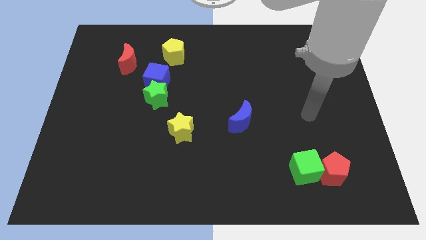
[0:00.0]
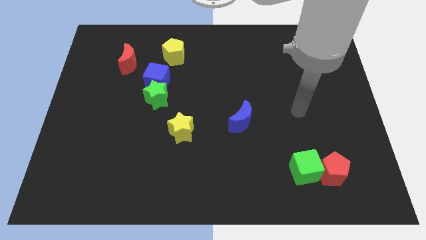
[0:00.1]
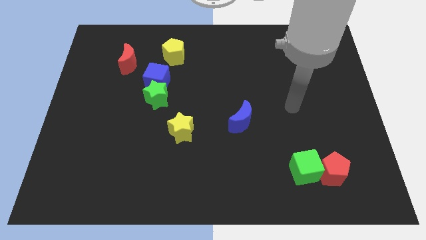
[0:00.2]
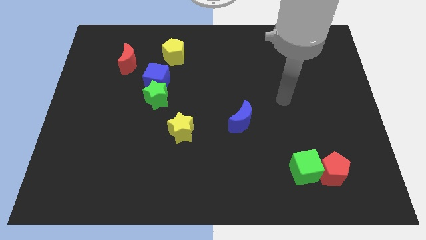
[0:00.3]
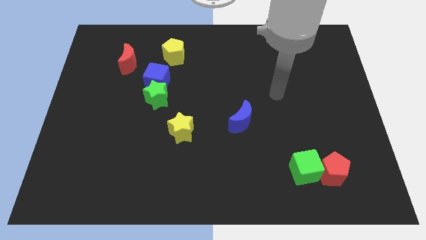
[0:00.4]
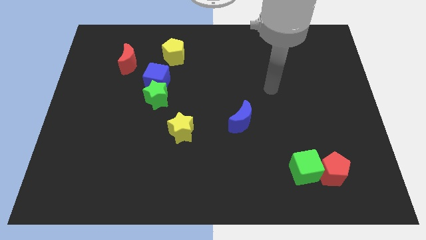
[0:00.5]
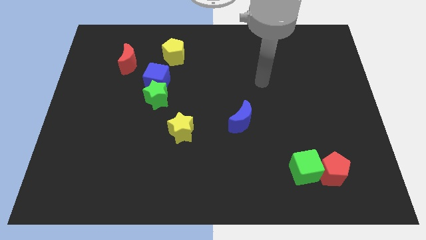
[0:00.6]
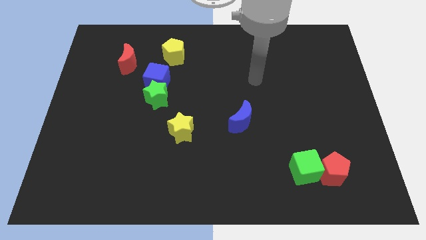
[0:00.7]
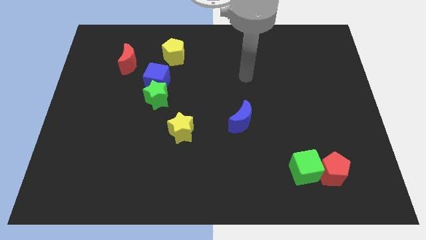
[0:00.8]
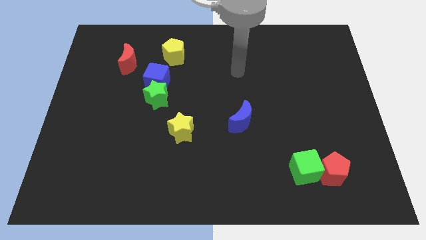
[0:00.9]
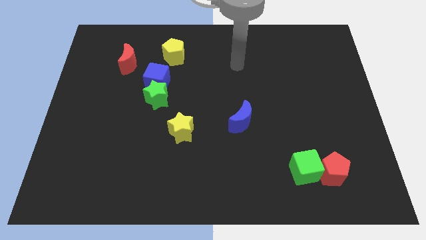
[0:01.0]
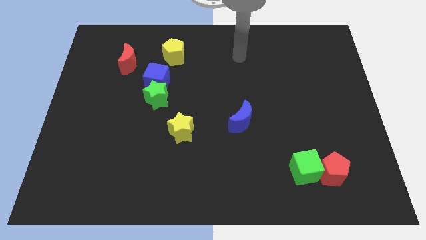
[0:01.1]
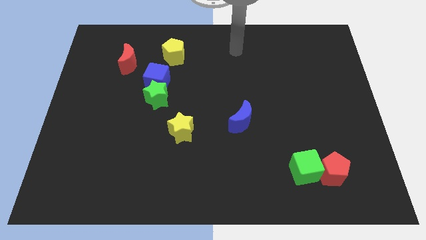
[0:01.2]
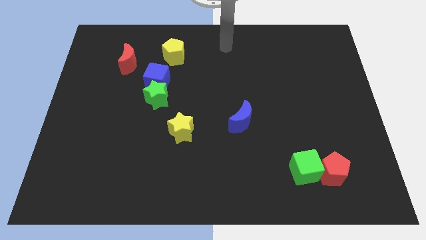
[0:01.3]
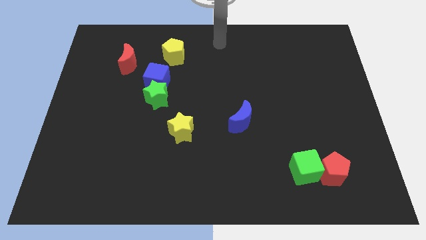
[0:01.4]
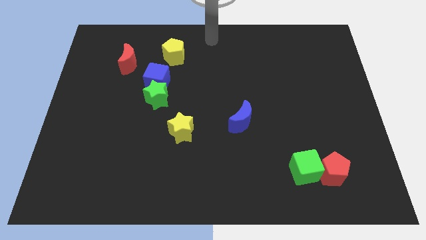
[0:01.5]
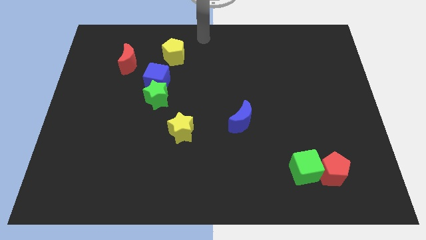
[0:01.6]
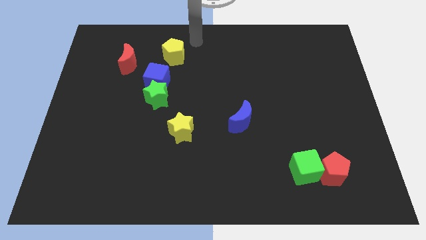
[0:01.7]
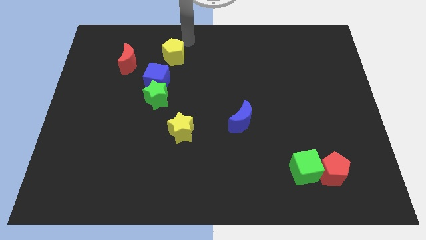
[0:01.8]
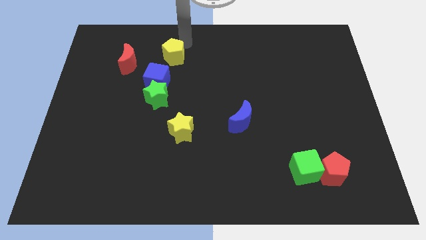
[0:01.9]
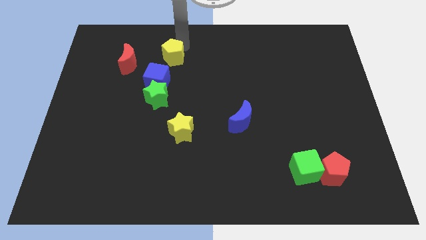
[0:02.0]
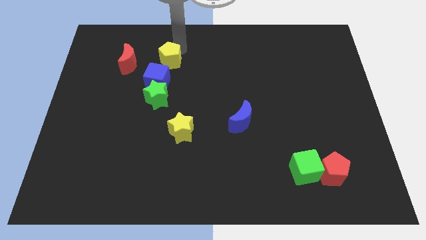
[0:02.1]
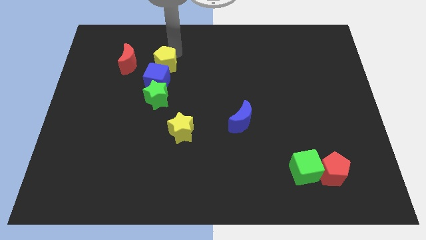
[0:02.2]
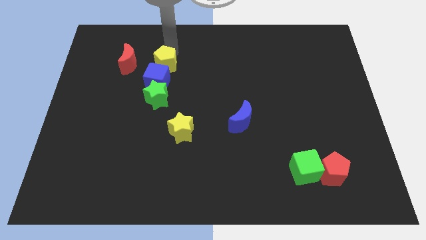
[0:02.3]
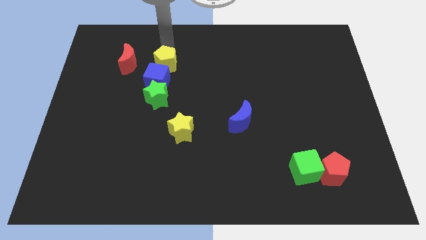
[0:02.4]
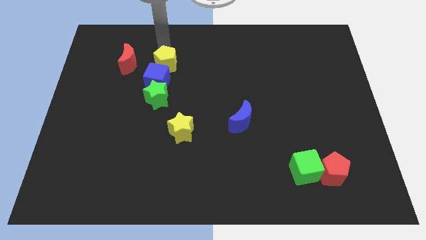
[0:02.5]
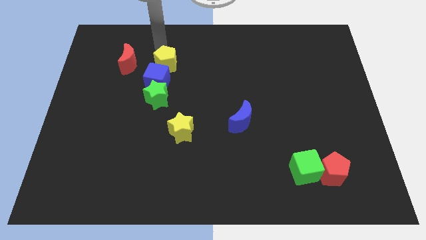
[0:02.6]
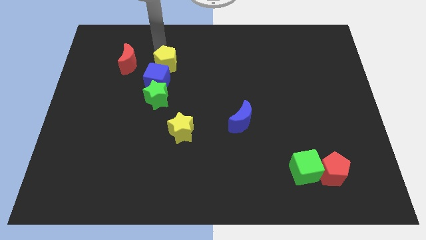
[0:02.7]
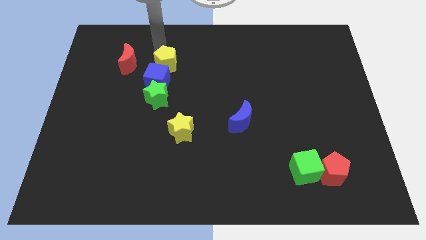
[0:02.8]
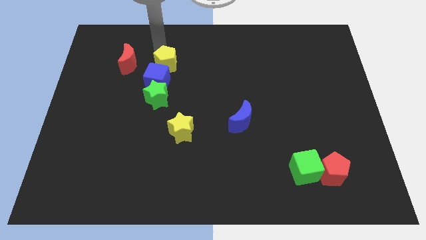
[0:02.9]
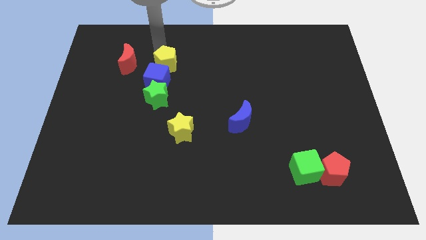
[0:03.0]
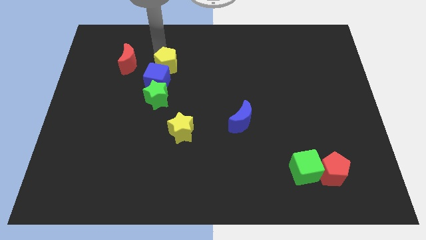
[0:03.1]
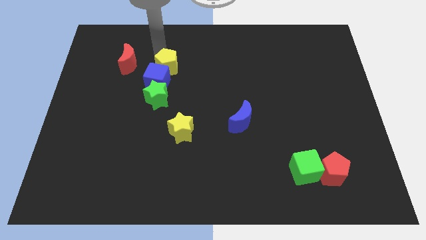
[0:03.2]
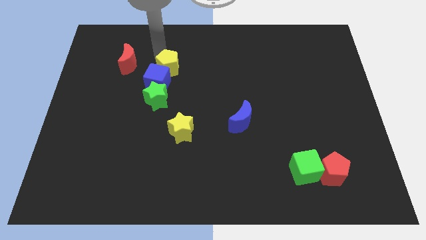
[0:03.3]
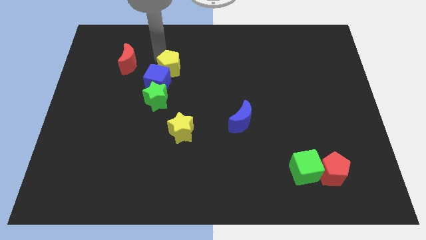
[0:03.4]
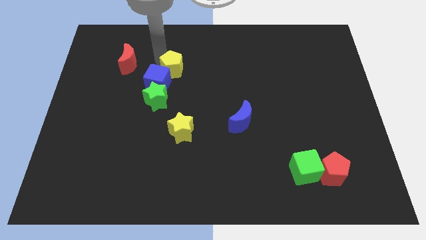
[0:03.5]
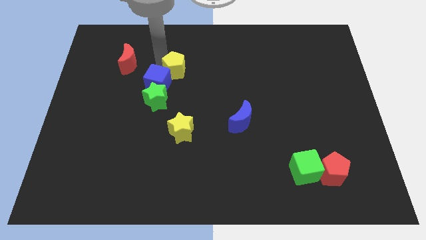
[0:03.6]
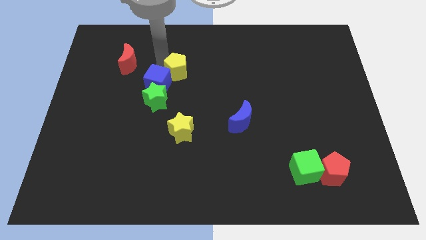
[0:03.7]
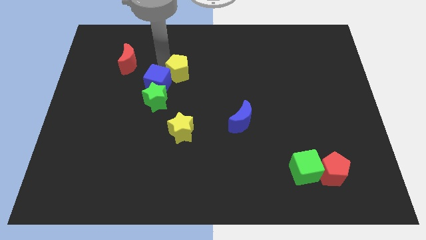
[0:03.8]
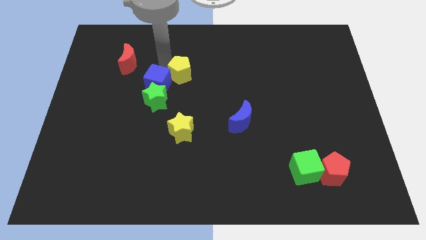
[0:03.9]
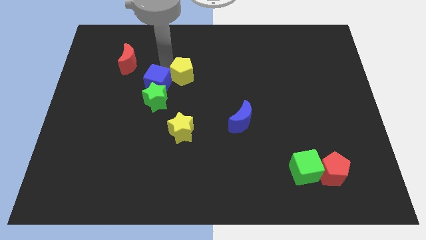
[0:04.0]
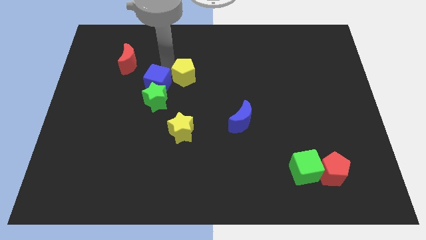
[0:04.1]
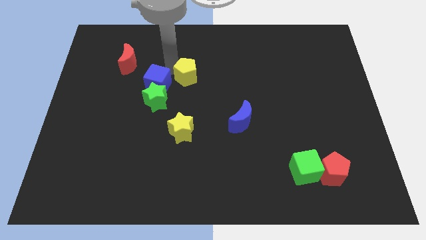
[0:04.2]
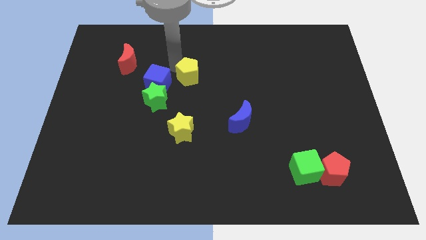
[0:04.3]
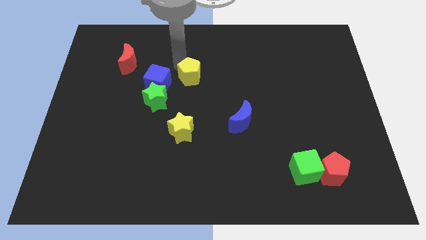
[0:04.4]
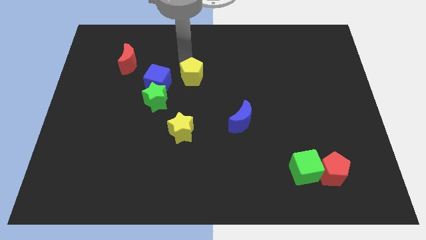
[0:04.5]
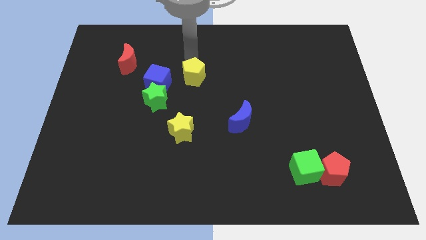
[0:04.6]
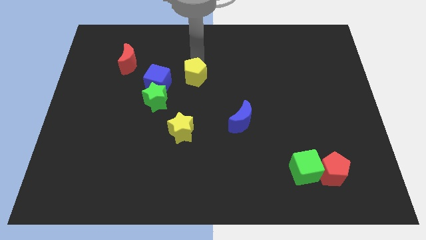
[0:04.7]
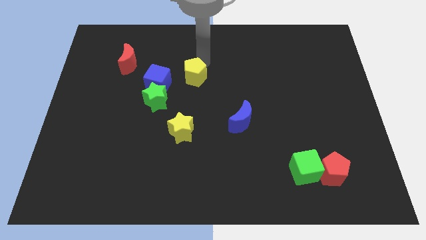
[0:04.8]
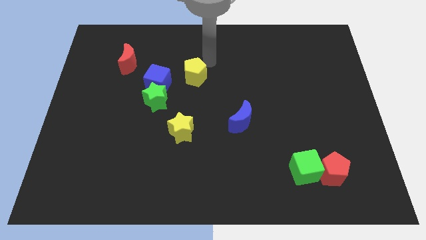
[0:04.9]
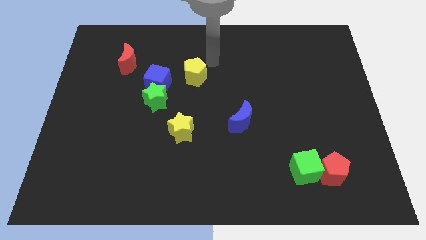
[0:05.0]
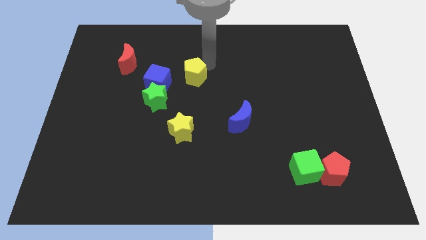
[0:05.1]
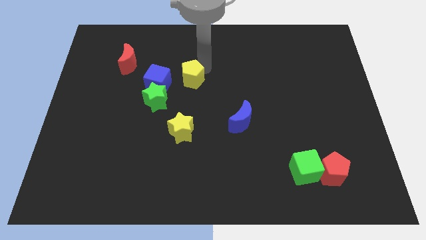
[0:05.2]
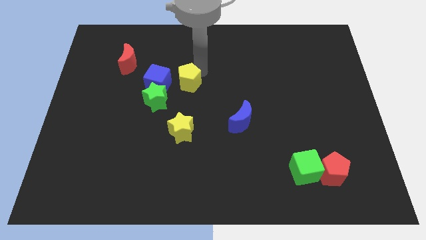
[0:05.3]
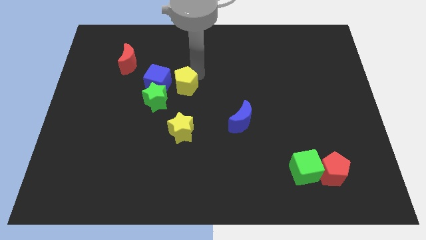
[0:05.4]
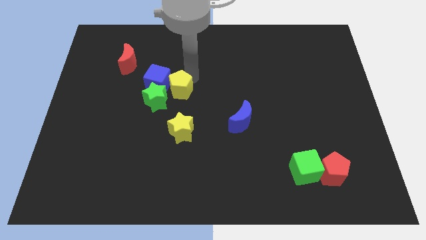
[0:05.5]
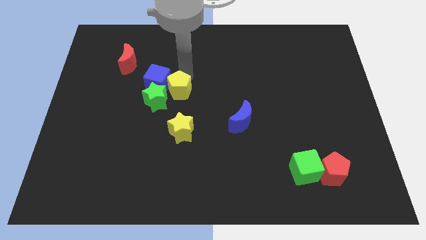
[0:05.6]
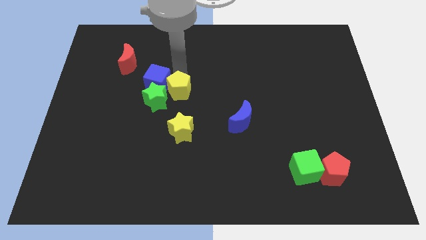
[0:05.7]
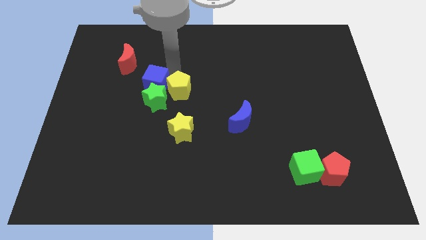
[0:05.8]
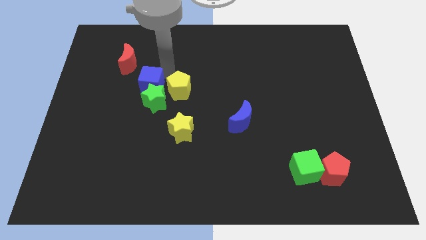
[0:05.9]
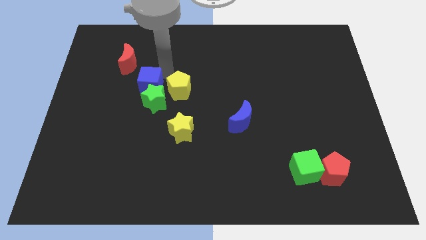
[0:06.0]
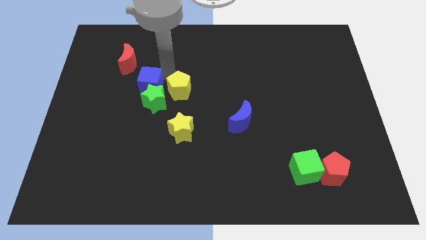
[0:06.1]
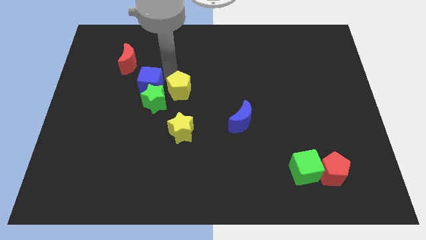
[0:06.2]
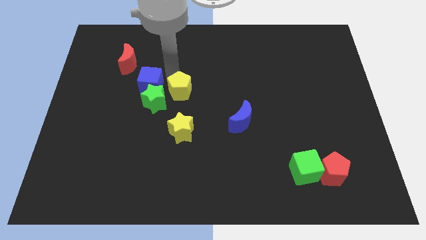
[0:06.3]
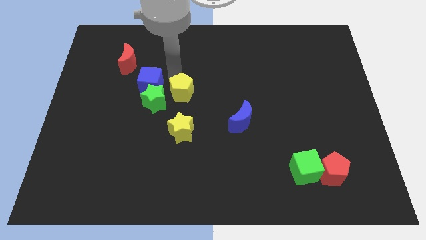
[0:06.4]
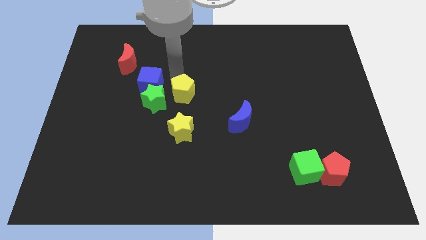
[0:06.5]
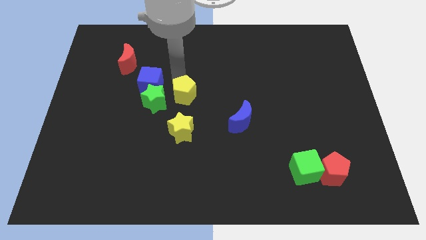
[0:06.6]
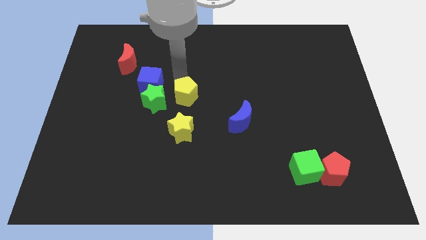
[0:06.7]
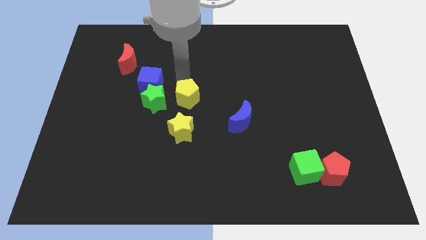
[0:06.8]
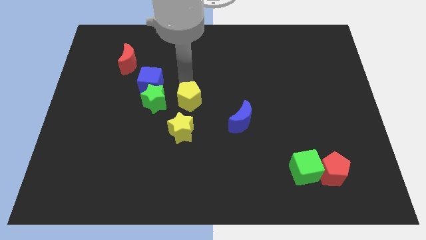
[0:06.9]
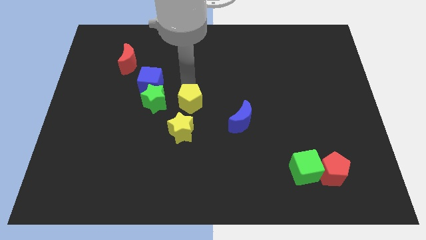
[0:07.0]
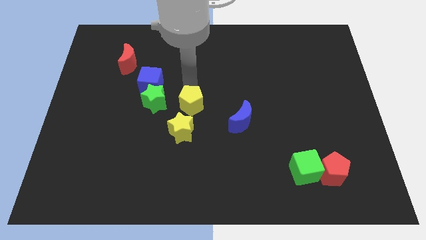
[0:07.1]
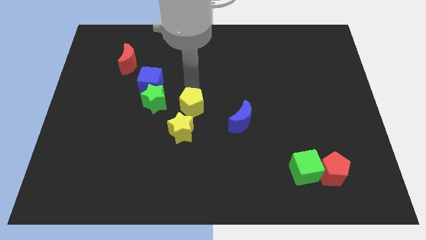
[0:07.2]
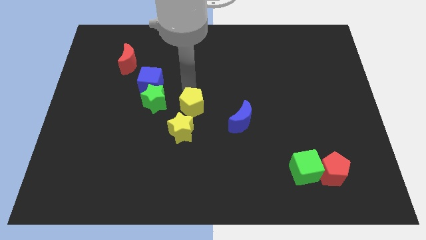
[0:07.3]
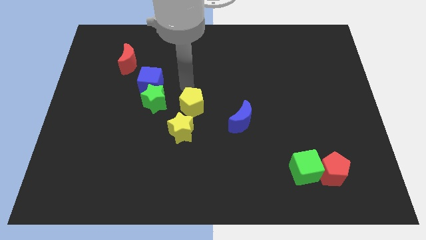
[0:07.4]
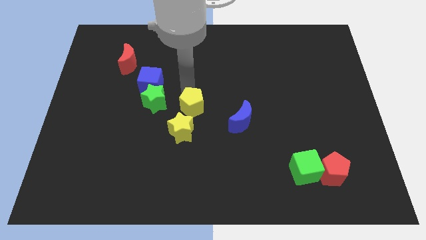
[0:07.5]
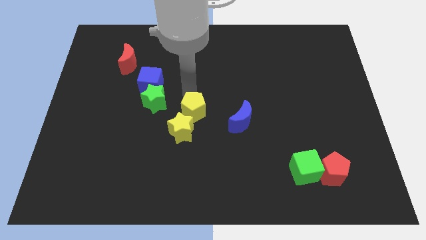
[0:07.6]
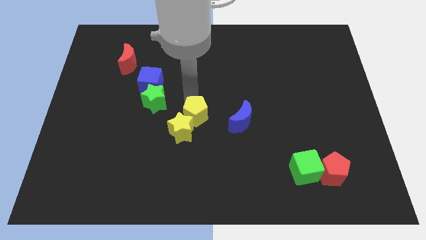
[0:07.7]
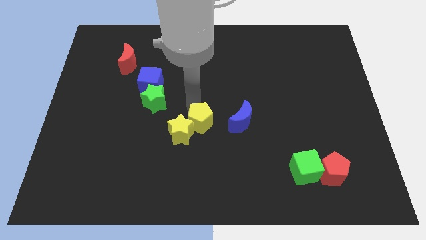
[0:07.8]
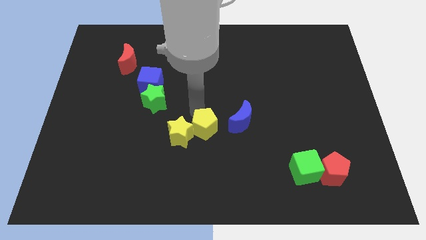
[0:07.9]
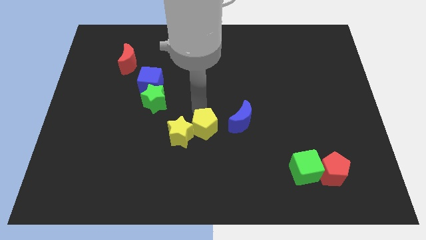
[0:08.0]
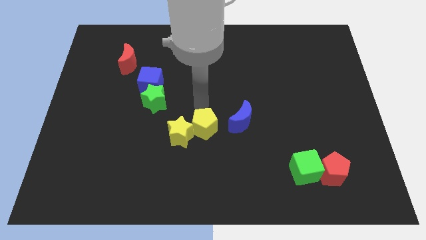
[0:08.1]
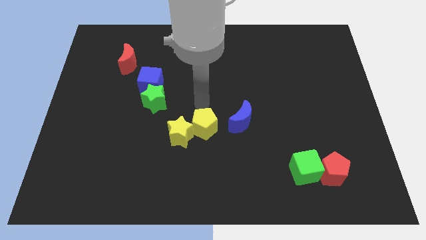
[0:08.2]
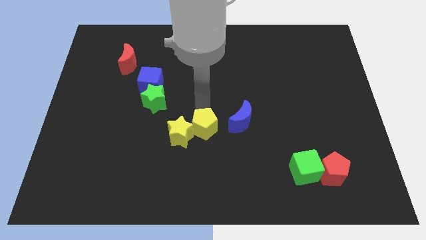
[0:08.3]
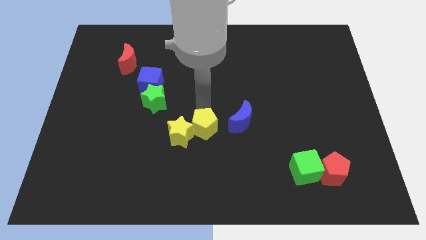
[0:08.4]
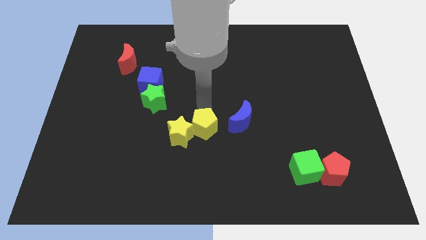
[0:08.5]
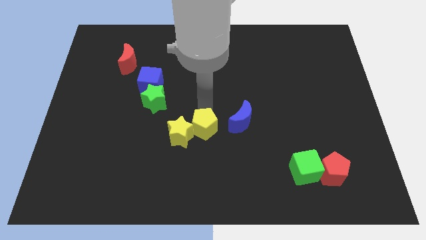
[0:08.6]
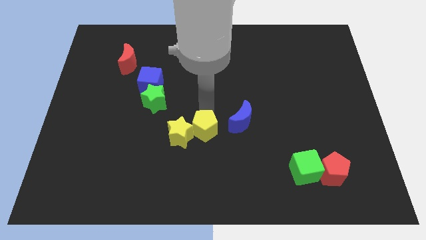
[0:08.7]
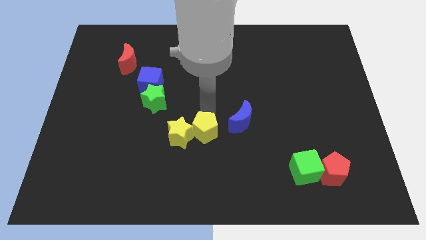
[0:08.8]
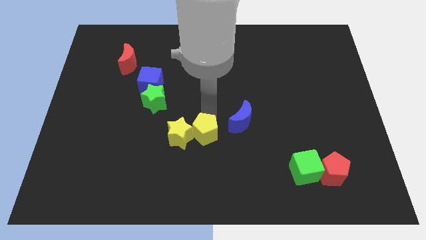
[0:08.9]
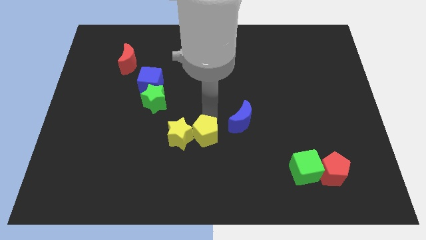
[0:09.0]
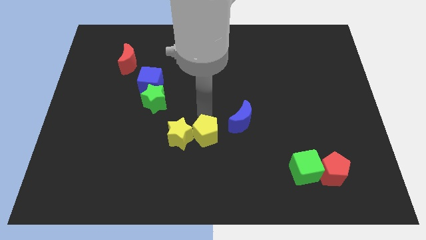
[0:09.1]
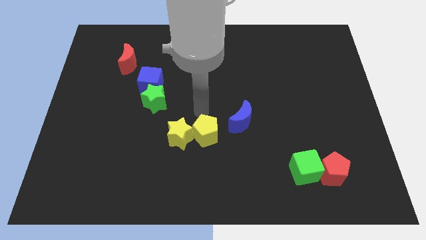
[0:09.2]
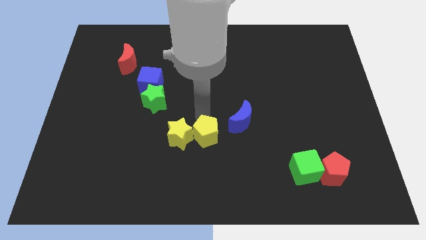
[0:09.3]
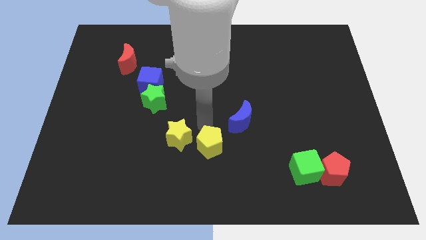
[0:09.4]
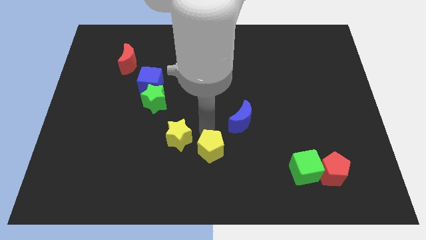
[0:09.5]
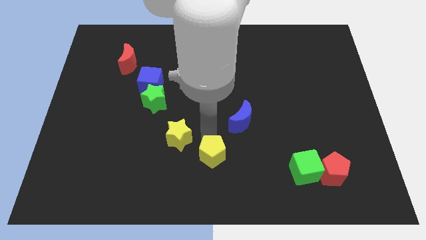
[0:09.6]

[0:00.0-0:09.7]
move the yellow pentagon to the bottom
